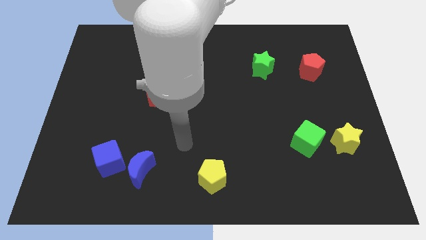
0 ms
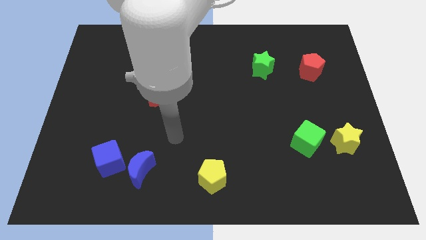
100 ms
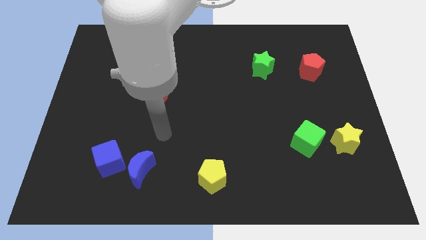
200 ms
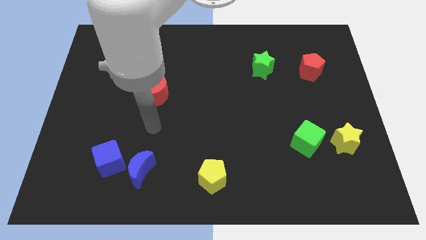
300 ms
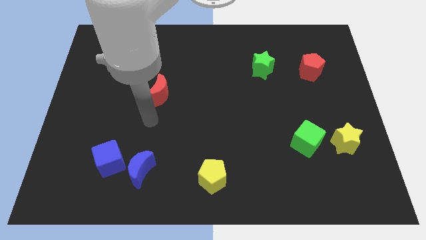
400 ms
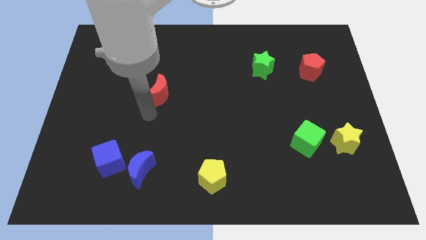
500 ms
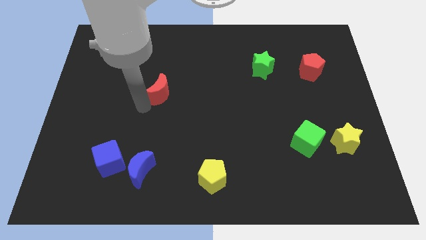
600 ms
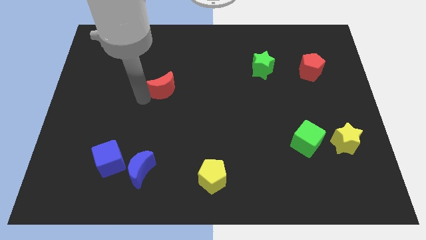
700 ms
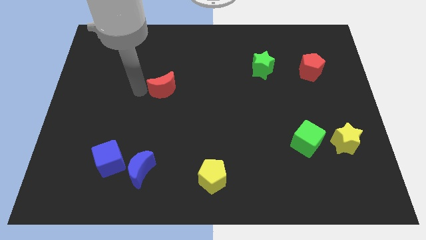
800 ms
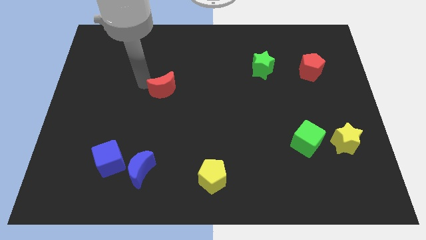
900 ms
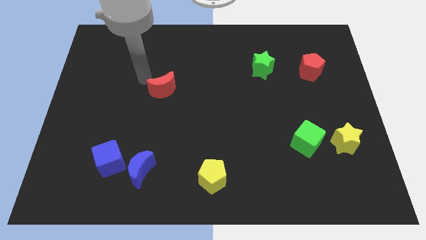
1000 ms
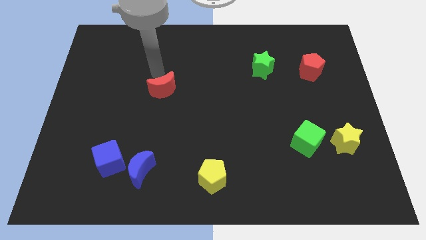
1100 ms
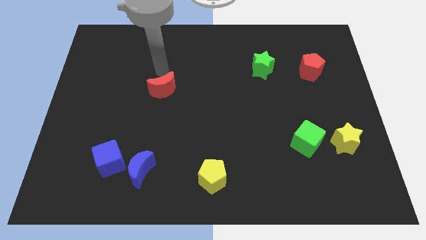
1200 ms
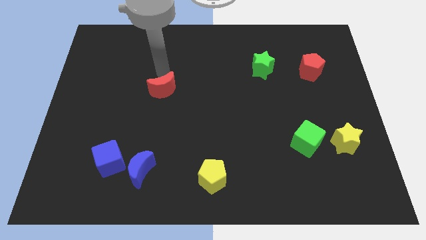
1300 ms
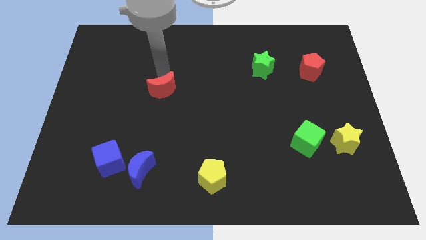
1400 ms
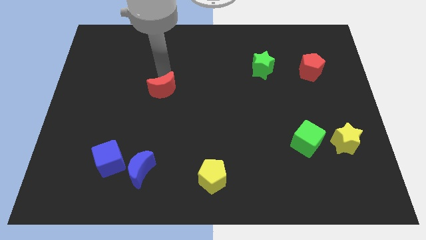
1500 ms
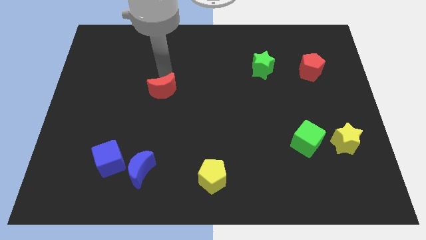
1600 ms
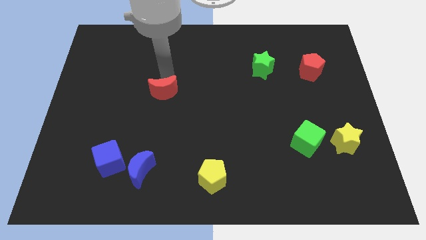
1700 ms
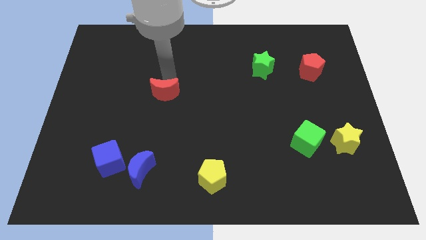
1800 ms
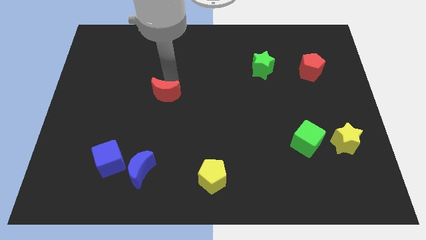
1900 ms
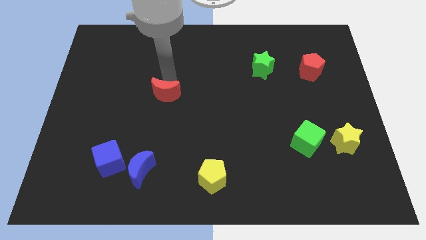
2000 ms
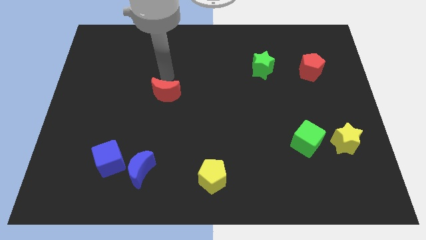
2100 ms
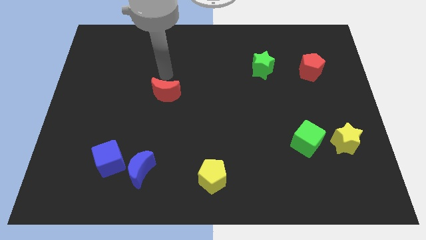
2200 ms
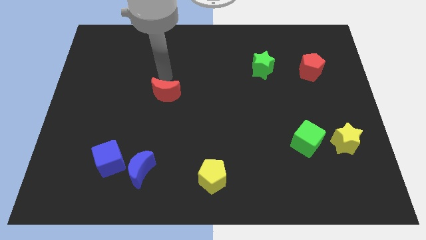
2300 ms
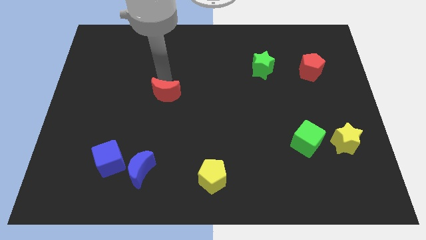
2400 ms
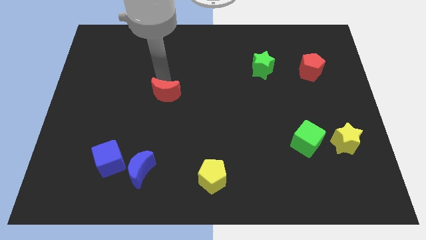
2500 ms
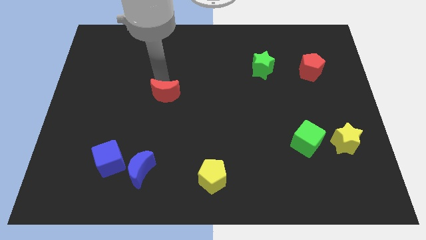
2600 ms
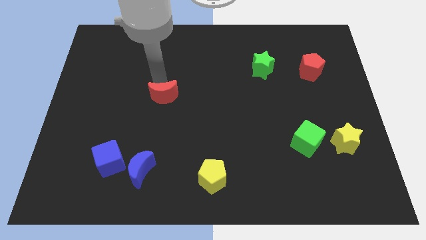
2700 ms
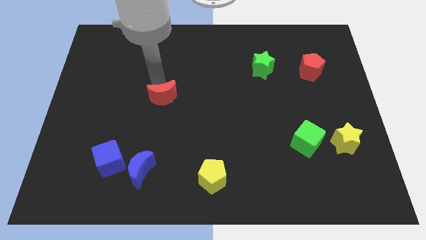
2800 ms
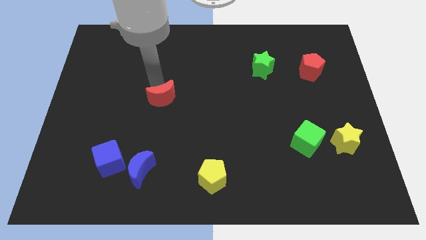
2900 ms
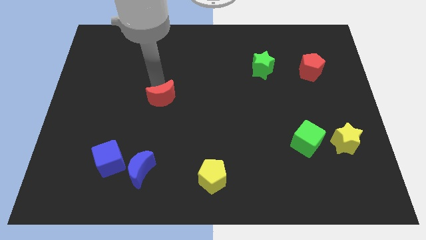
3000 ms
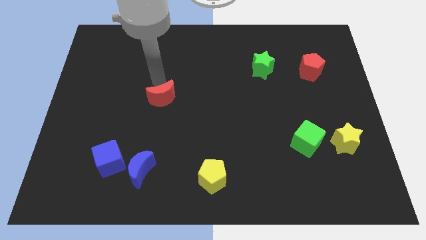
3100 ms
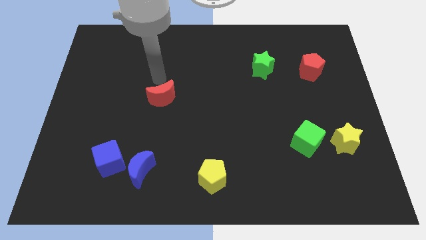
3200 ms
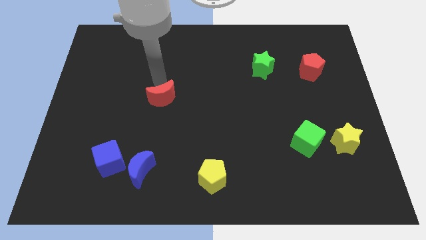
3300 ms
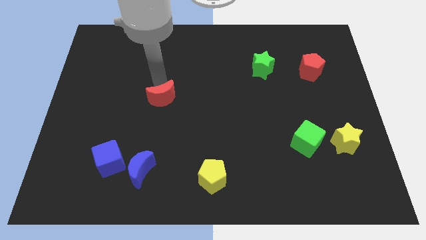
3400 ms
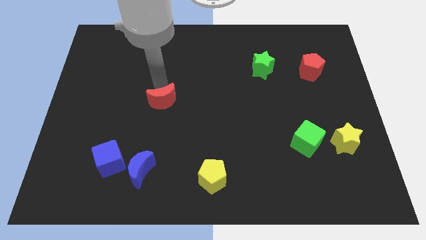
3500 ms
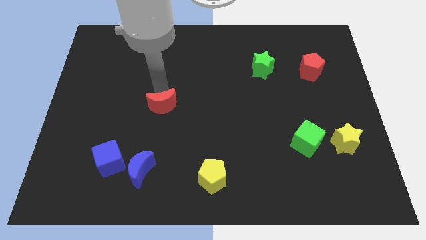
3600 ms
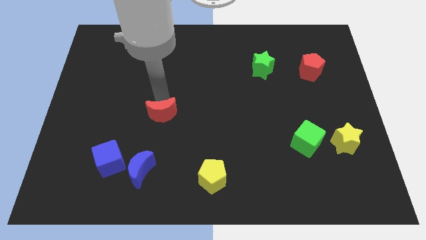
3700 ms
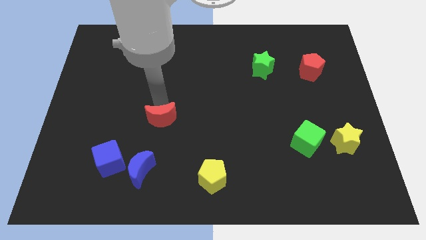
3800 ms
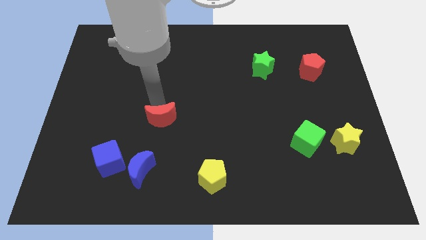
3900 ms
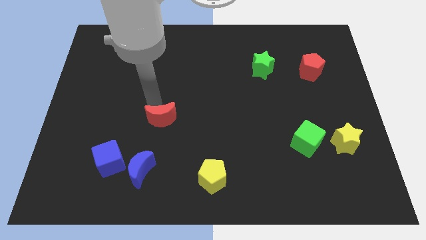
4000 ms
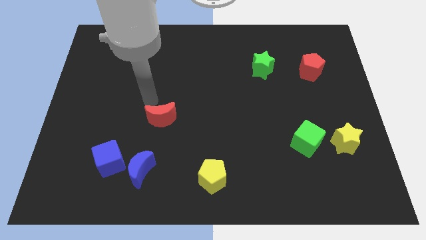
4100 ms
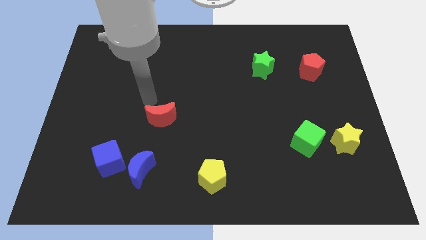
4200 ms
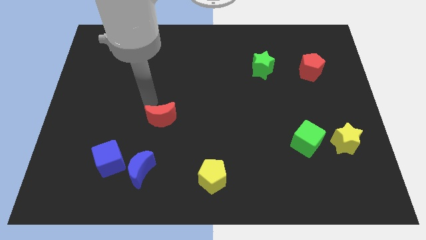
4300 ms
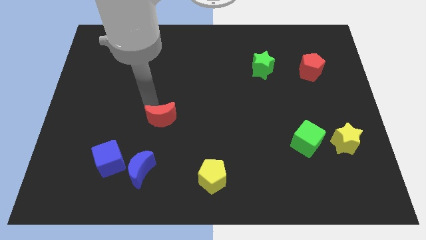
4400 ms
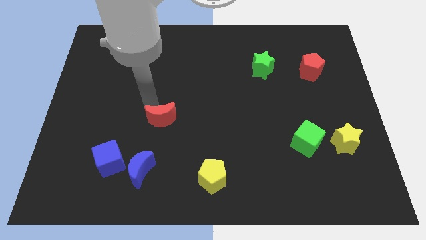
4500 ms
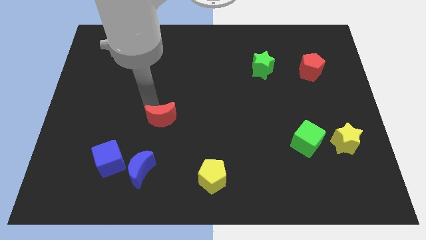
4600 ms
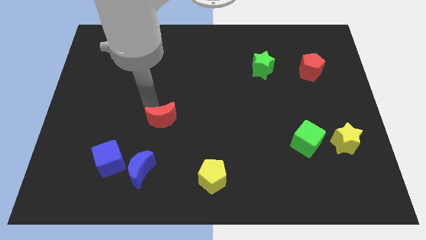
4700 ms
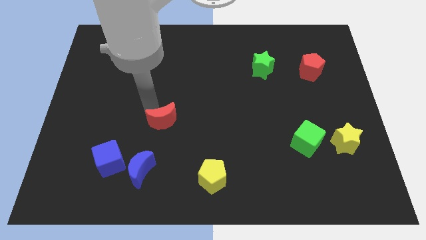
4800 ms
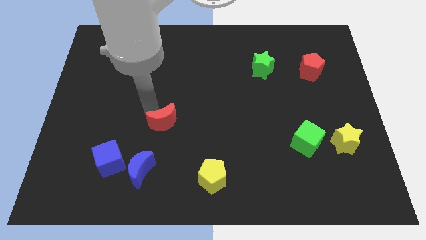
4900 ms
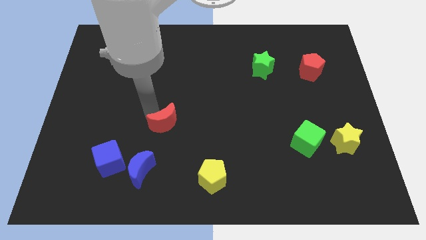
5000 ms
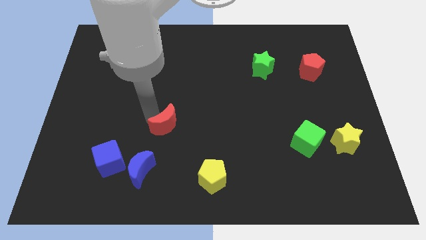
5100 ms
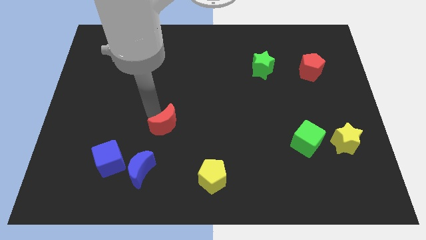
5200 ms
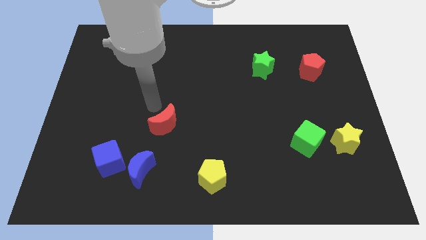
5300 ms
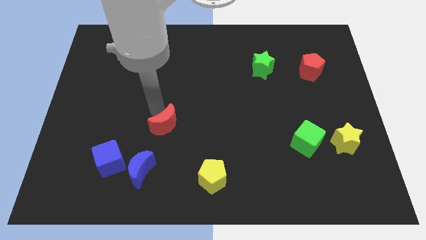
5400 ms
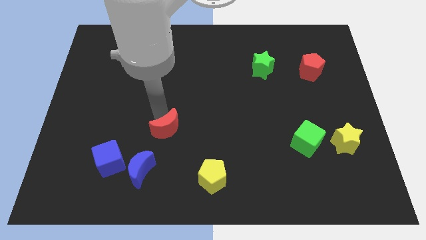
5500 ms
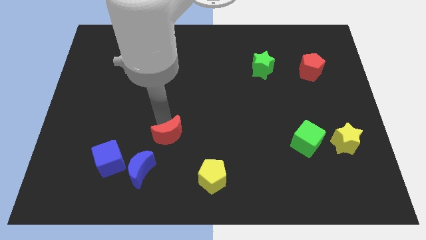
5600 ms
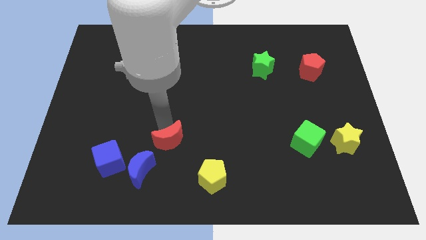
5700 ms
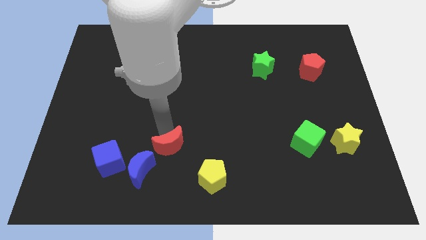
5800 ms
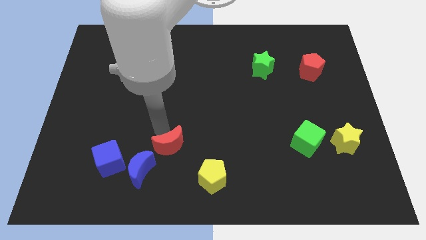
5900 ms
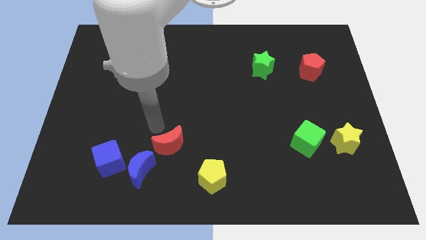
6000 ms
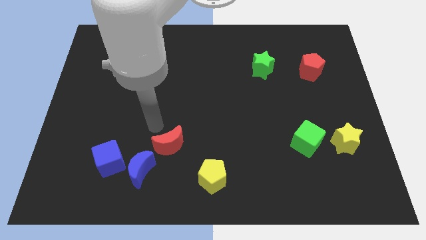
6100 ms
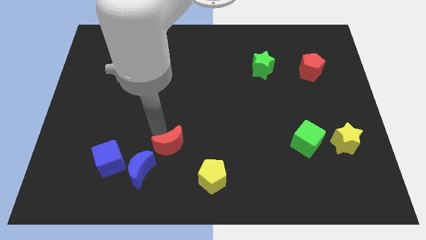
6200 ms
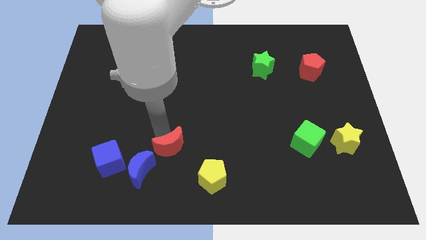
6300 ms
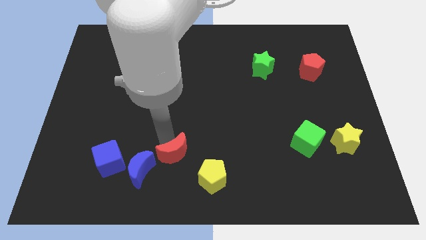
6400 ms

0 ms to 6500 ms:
move the red moon just right of the blue moon
